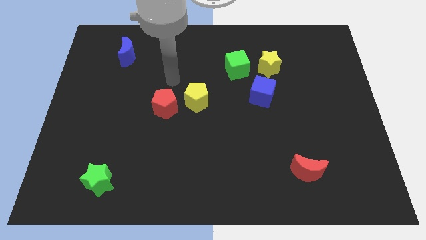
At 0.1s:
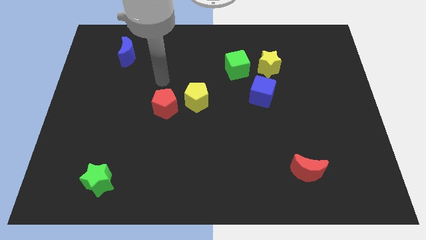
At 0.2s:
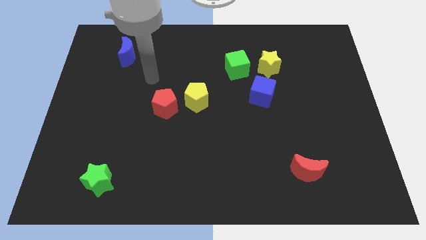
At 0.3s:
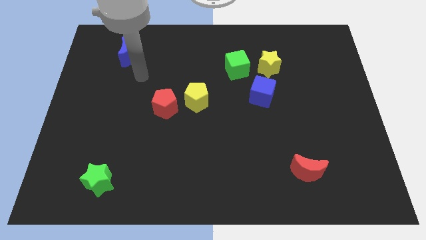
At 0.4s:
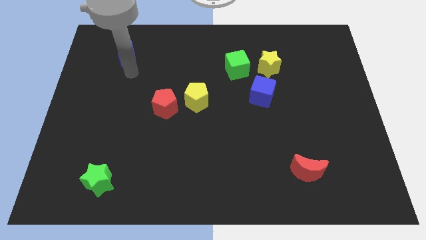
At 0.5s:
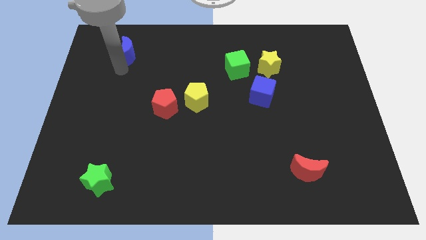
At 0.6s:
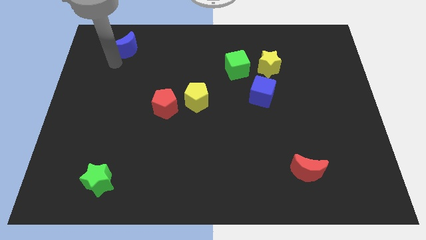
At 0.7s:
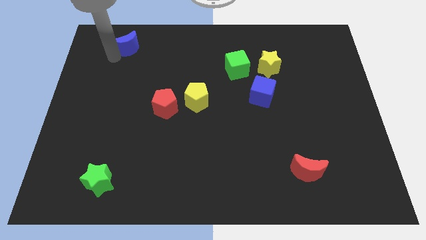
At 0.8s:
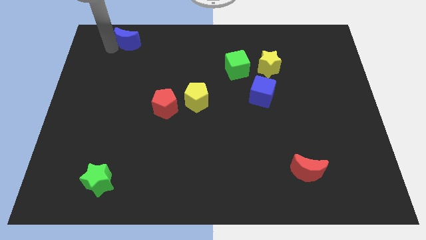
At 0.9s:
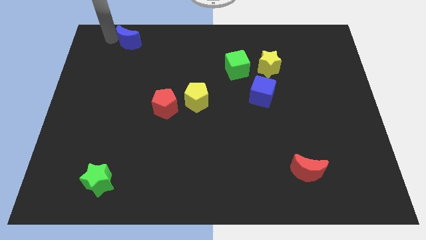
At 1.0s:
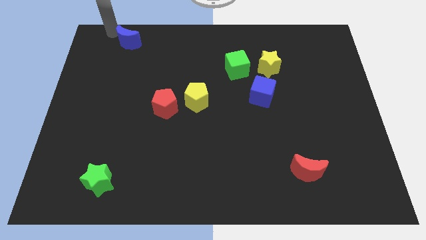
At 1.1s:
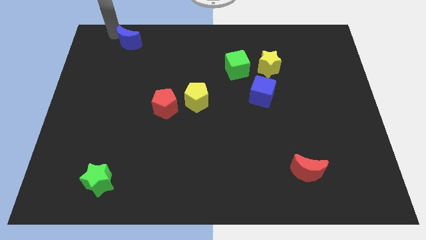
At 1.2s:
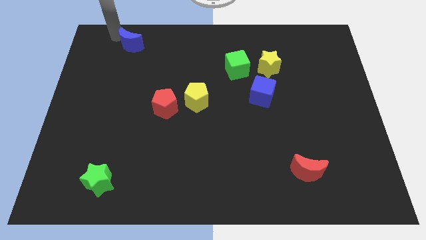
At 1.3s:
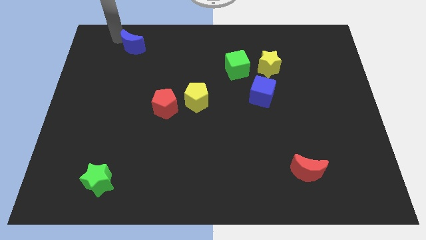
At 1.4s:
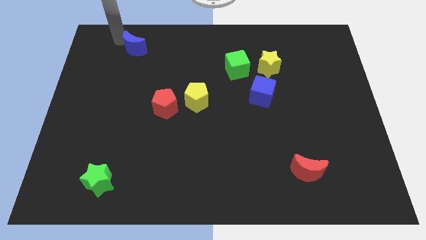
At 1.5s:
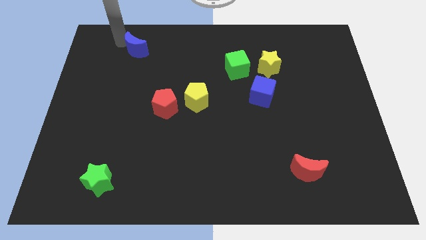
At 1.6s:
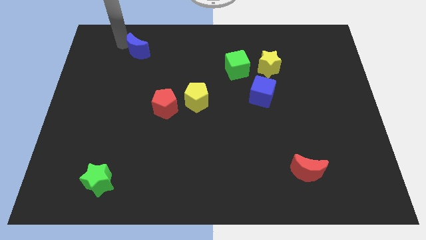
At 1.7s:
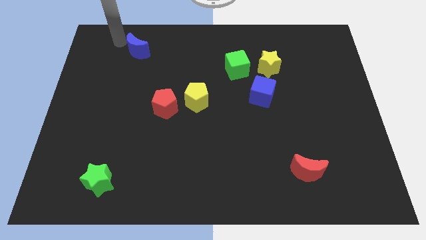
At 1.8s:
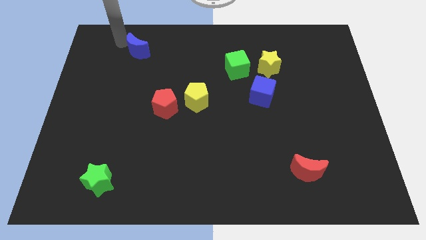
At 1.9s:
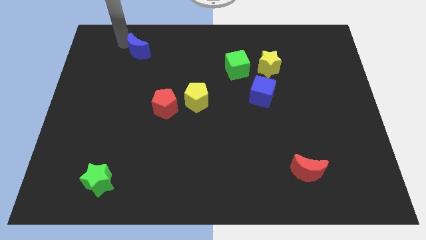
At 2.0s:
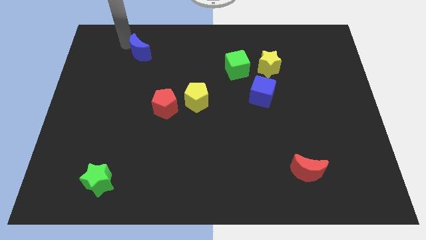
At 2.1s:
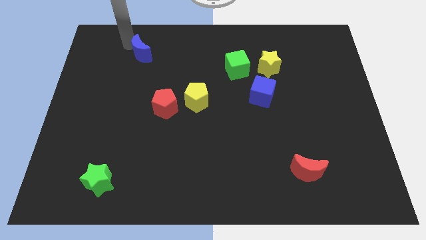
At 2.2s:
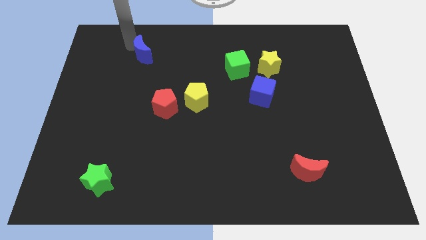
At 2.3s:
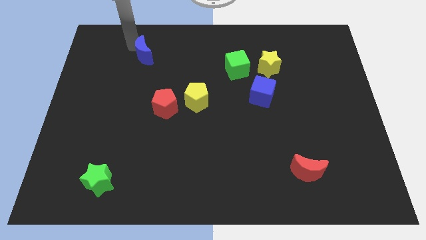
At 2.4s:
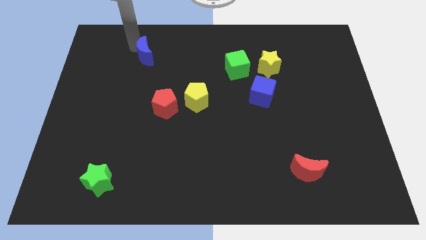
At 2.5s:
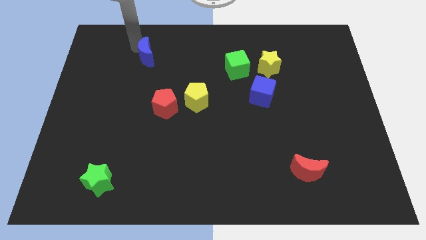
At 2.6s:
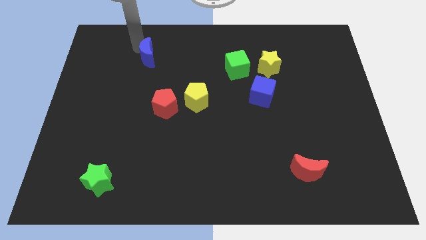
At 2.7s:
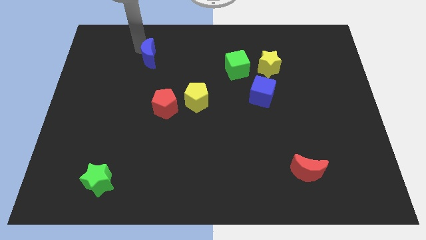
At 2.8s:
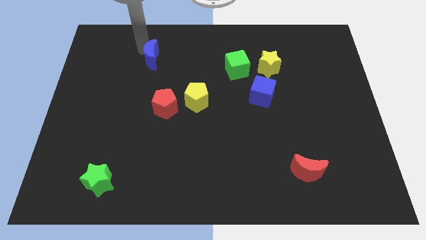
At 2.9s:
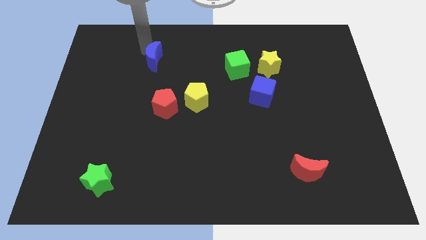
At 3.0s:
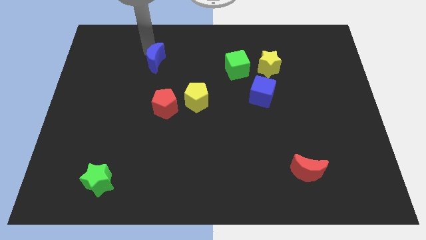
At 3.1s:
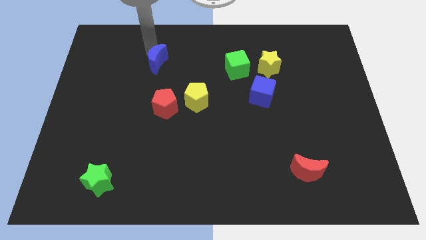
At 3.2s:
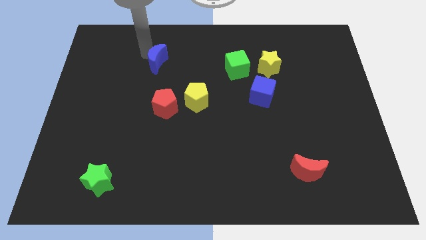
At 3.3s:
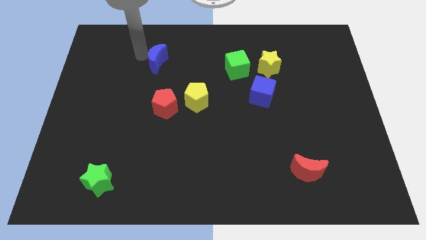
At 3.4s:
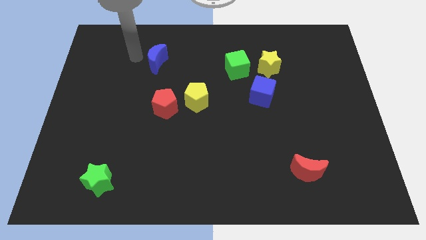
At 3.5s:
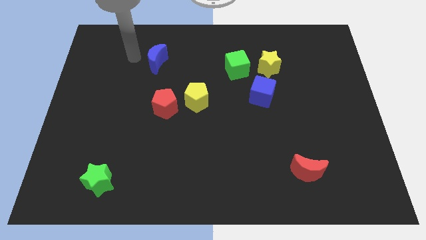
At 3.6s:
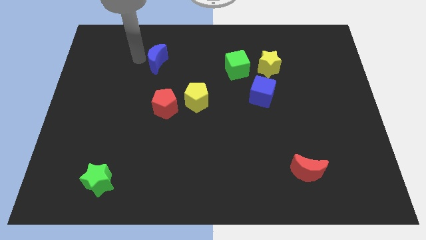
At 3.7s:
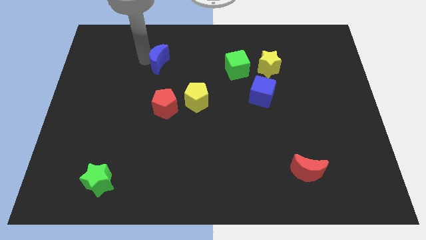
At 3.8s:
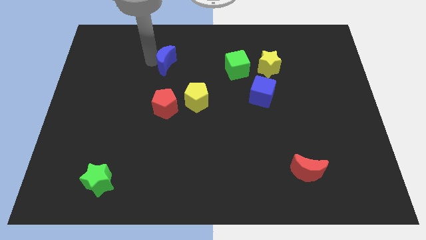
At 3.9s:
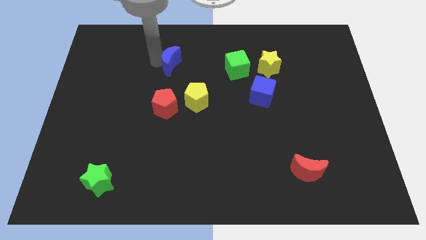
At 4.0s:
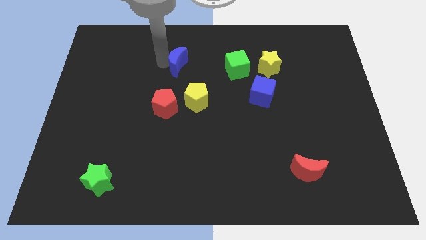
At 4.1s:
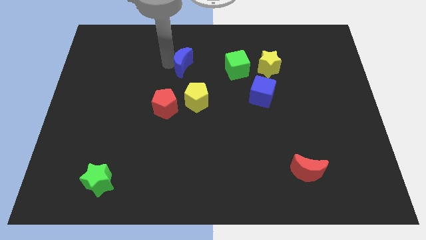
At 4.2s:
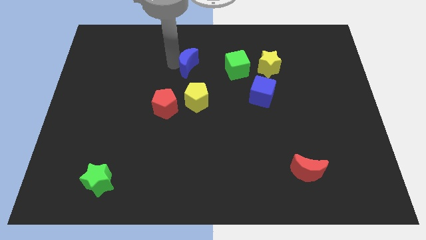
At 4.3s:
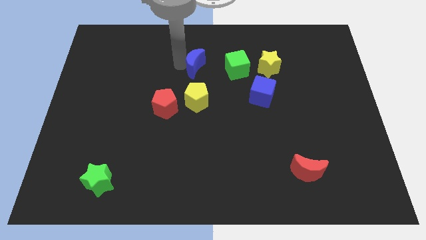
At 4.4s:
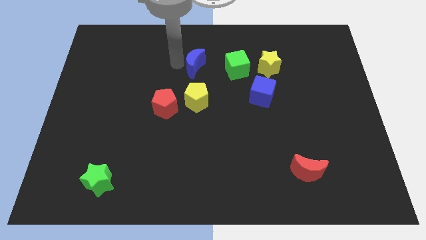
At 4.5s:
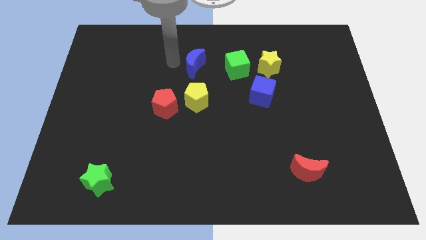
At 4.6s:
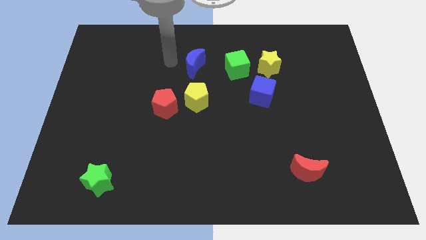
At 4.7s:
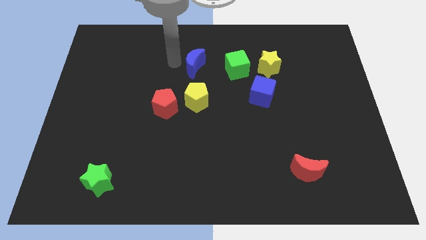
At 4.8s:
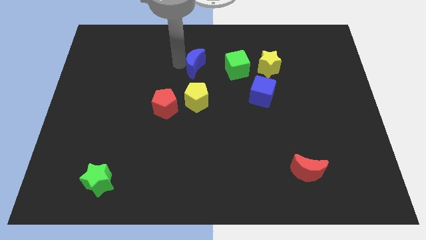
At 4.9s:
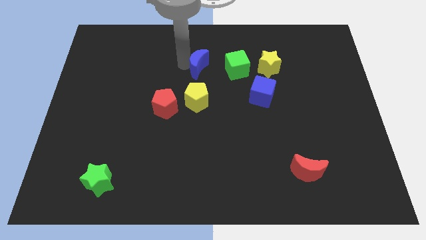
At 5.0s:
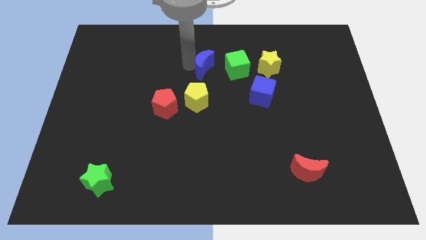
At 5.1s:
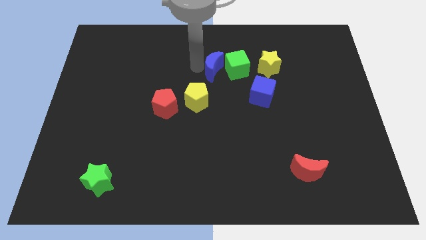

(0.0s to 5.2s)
put the blue moon next to the green cube

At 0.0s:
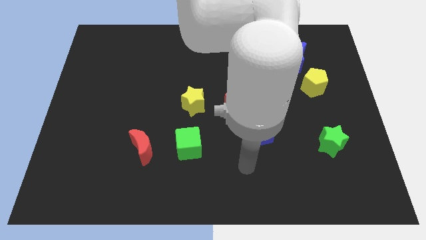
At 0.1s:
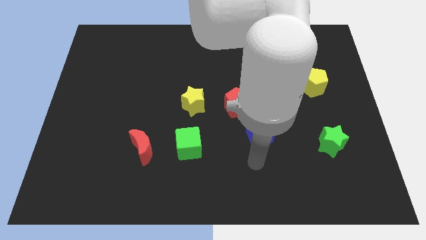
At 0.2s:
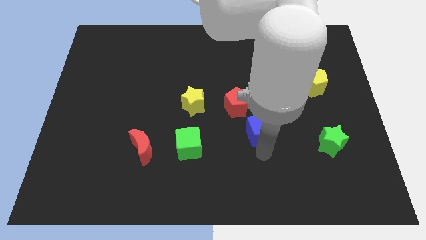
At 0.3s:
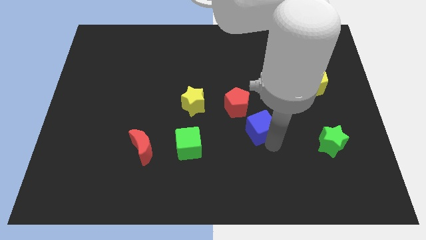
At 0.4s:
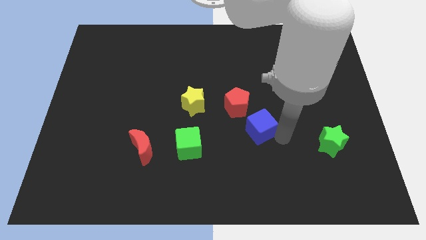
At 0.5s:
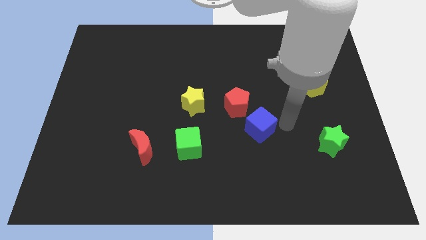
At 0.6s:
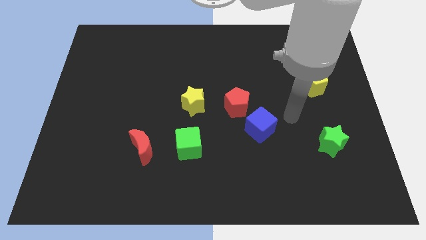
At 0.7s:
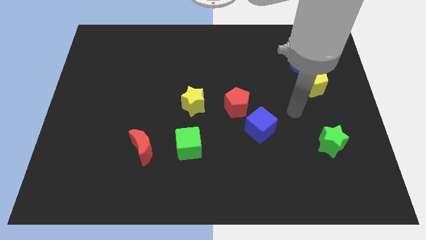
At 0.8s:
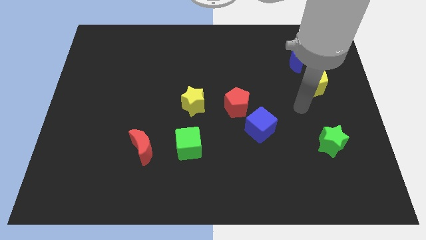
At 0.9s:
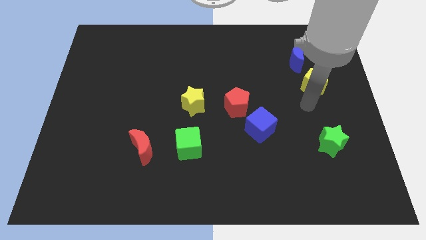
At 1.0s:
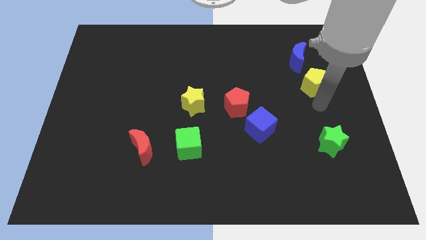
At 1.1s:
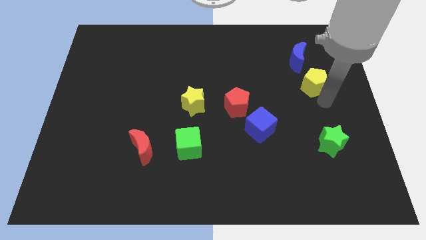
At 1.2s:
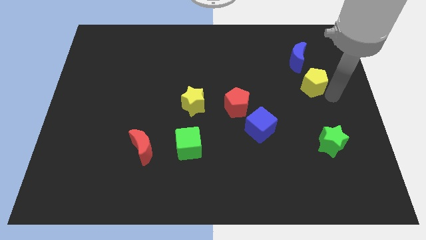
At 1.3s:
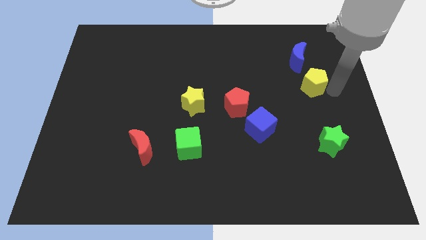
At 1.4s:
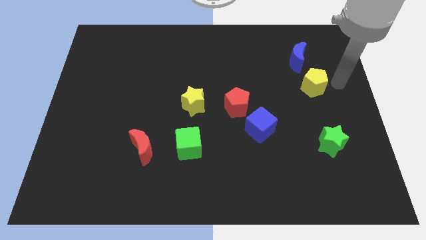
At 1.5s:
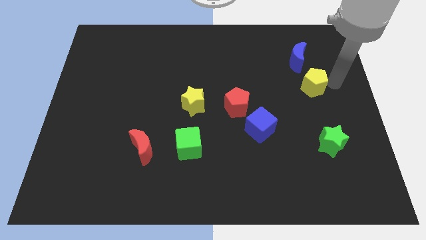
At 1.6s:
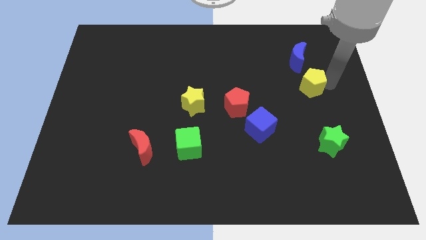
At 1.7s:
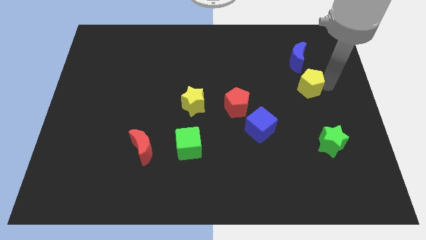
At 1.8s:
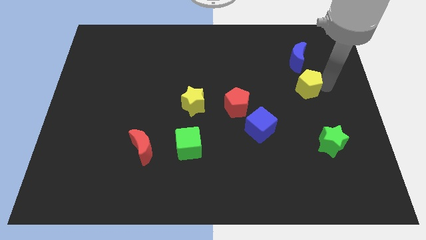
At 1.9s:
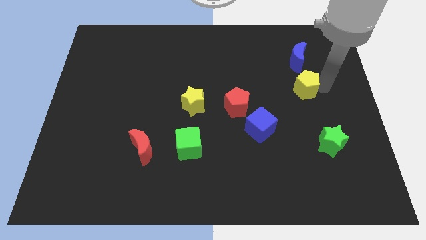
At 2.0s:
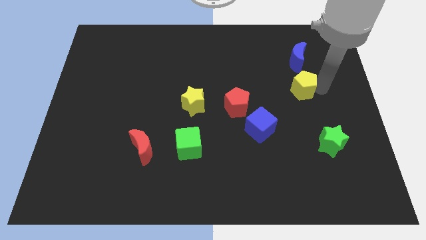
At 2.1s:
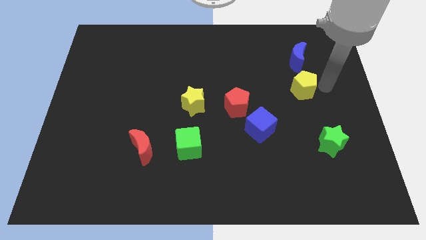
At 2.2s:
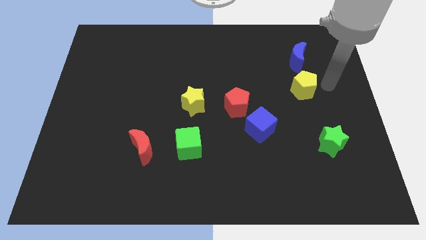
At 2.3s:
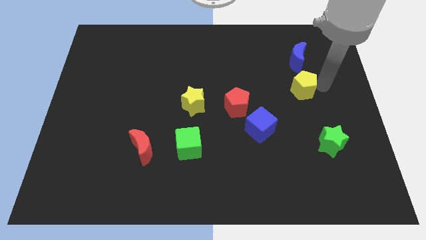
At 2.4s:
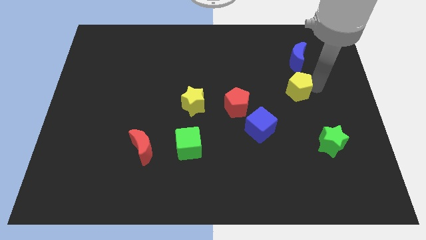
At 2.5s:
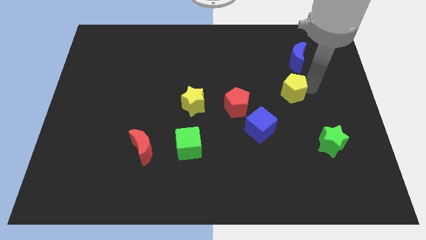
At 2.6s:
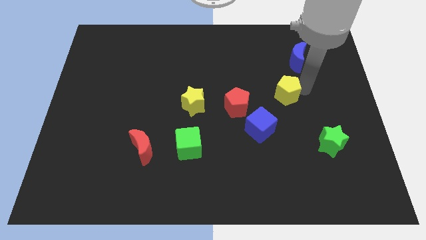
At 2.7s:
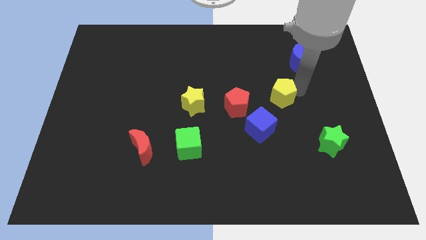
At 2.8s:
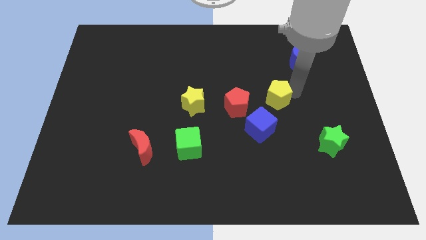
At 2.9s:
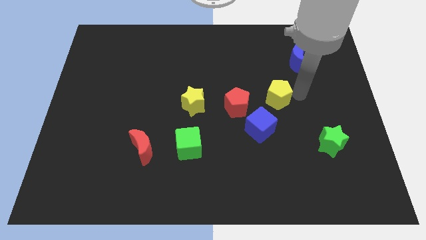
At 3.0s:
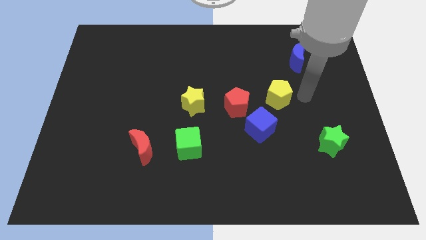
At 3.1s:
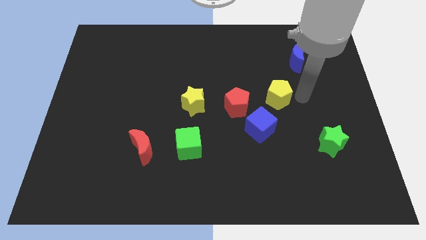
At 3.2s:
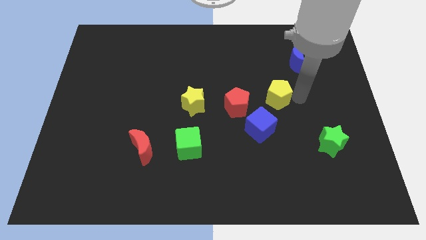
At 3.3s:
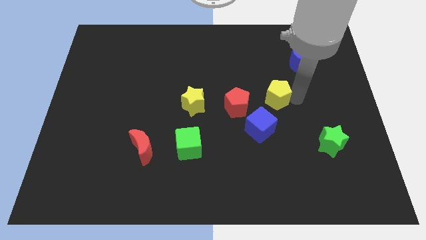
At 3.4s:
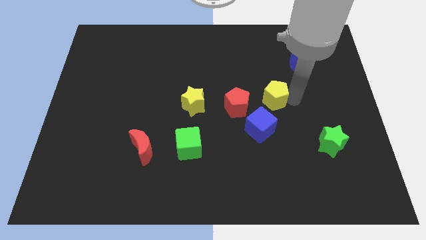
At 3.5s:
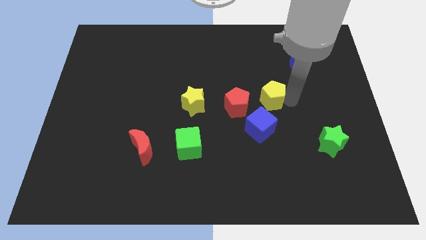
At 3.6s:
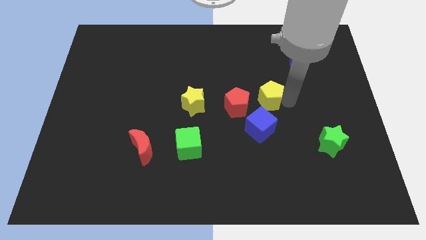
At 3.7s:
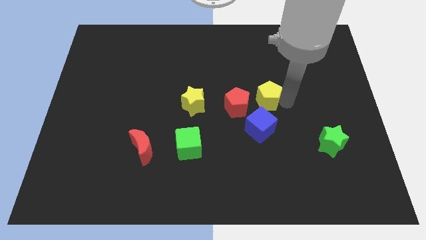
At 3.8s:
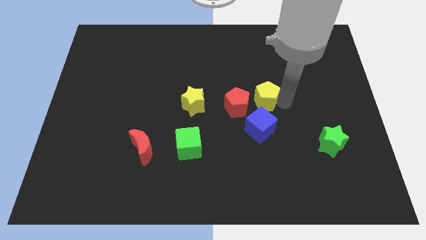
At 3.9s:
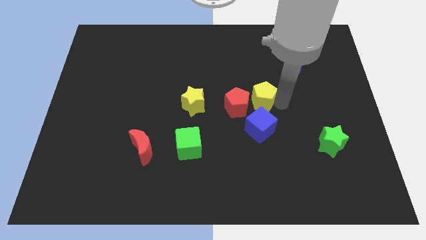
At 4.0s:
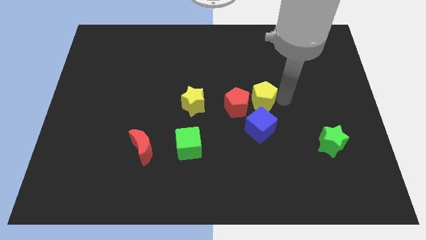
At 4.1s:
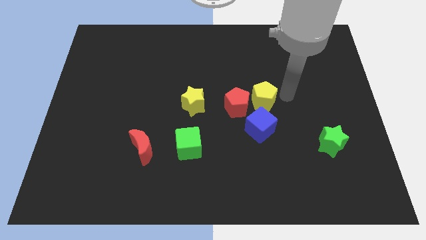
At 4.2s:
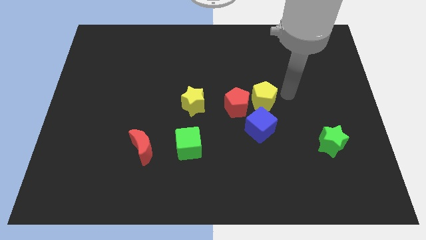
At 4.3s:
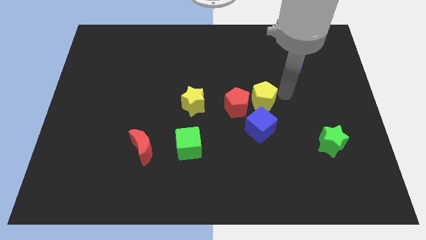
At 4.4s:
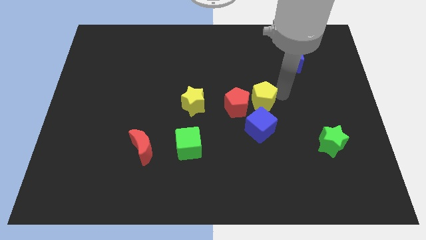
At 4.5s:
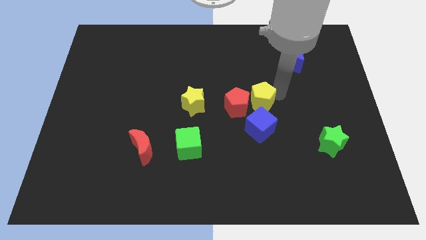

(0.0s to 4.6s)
push the yellow pentagon towards the red pentagon
